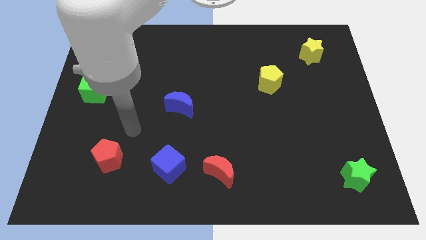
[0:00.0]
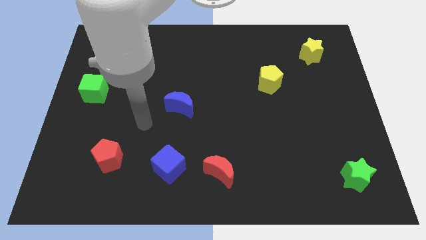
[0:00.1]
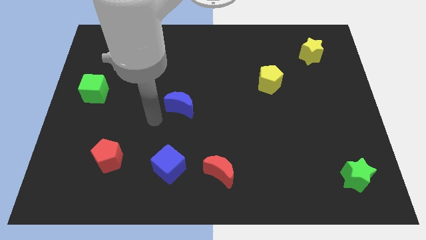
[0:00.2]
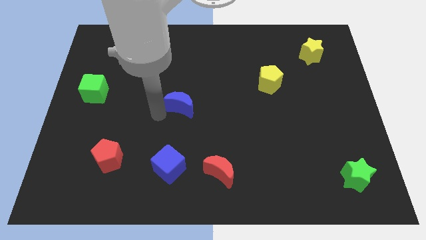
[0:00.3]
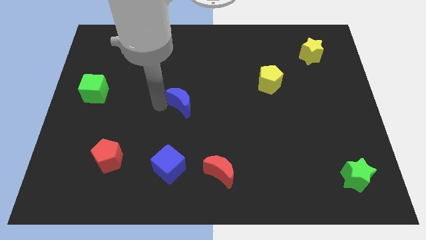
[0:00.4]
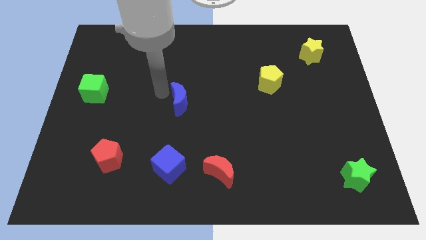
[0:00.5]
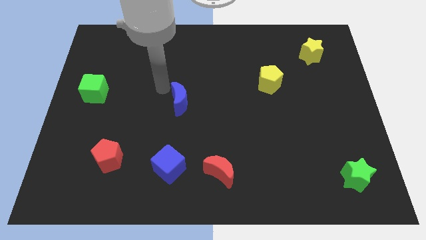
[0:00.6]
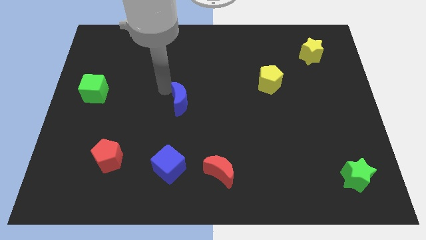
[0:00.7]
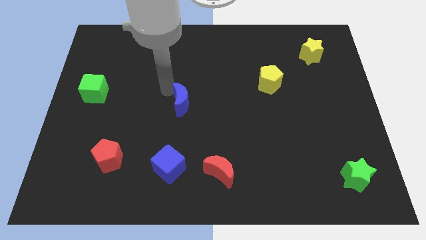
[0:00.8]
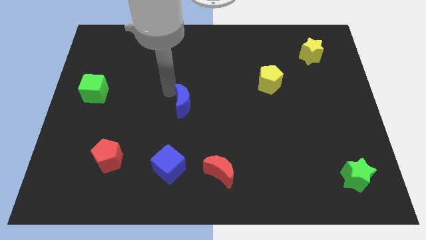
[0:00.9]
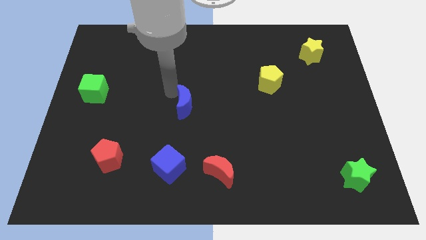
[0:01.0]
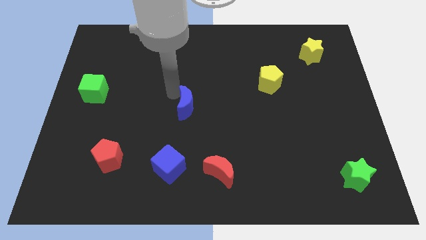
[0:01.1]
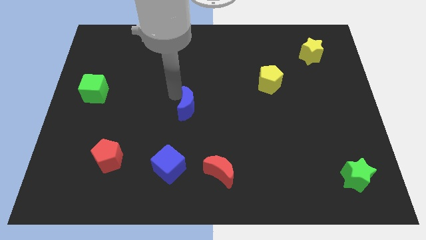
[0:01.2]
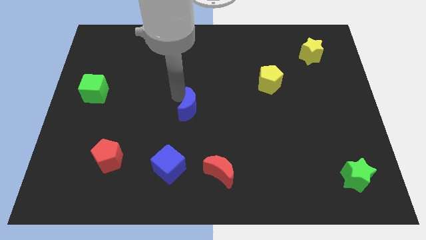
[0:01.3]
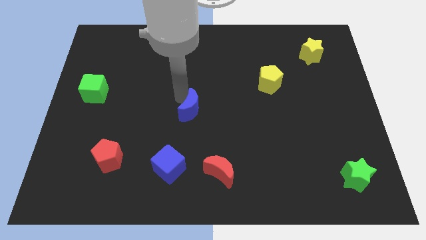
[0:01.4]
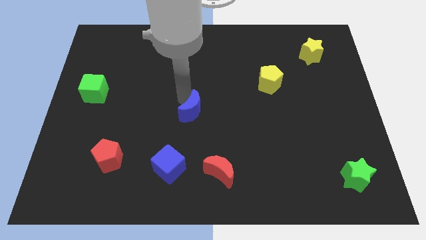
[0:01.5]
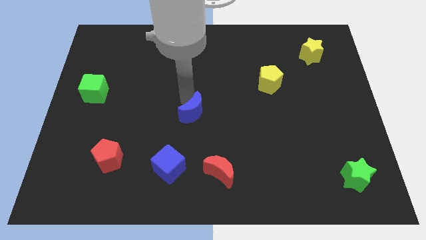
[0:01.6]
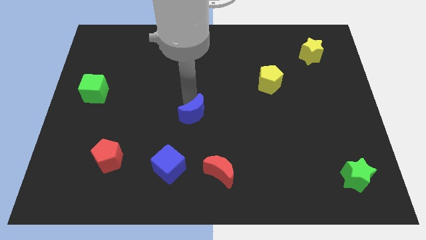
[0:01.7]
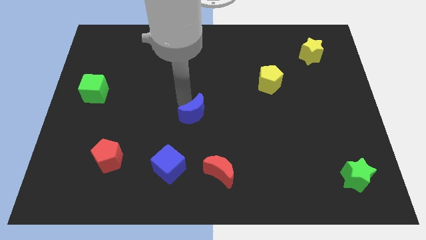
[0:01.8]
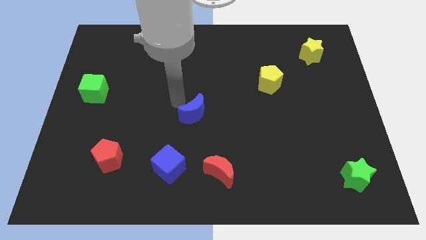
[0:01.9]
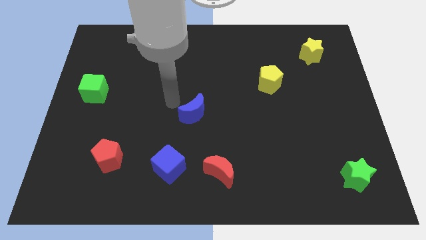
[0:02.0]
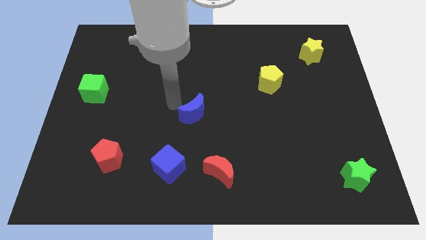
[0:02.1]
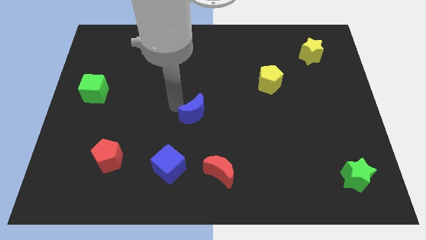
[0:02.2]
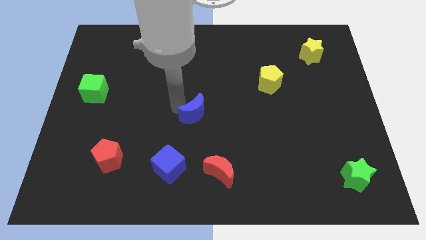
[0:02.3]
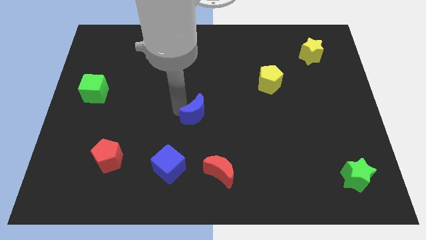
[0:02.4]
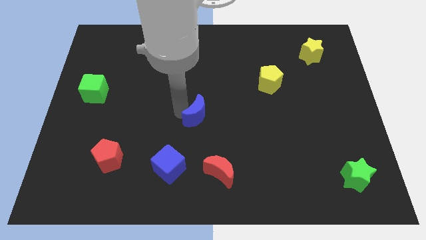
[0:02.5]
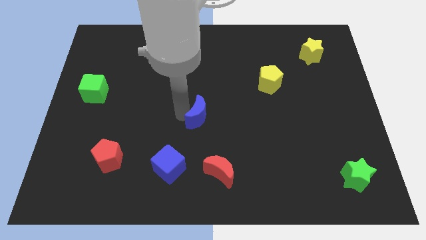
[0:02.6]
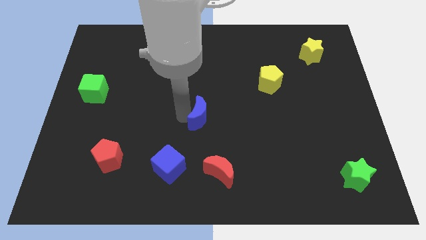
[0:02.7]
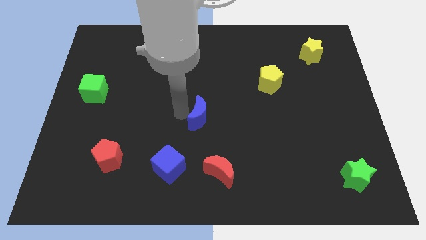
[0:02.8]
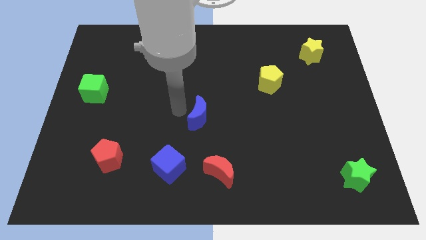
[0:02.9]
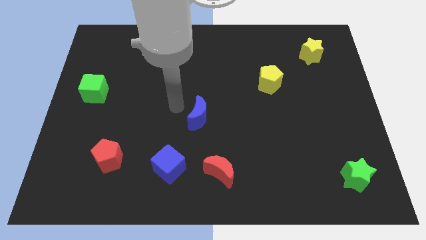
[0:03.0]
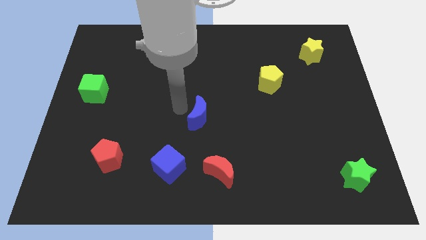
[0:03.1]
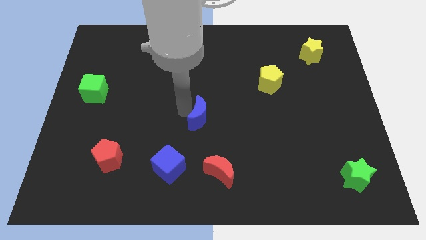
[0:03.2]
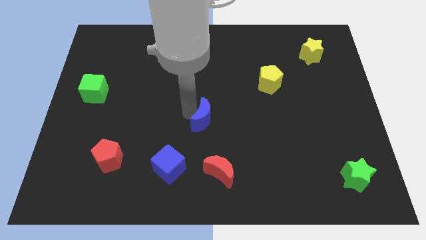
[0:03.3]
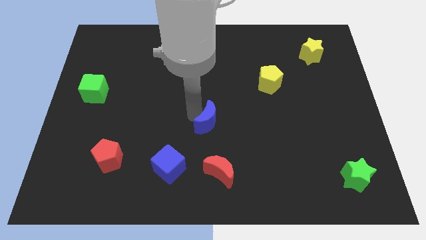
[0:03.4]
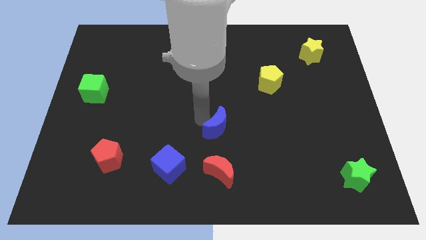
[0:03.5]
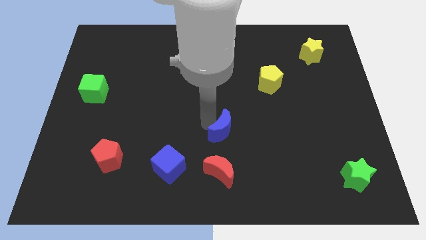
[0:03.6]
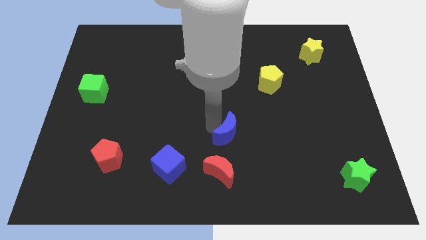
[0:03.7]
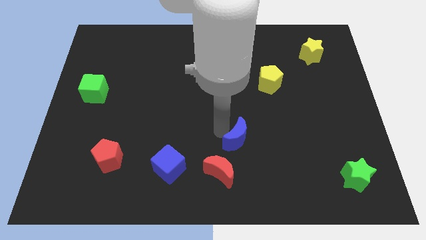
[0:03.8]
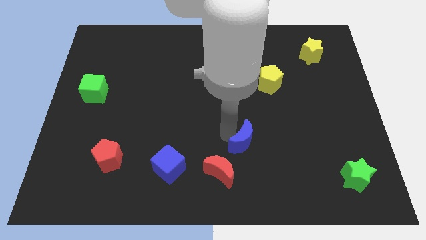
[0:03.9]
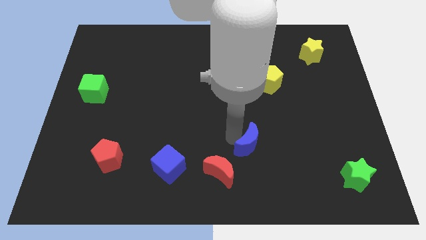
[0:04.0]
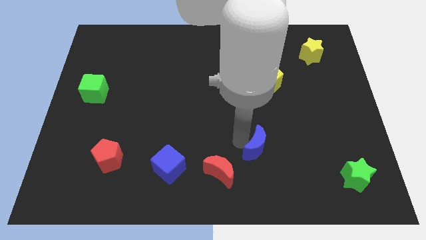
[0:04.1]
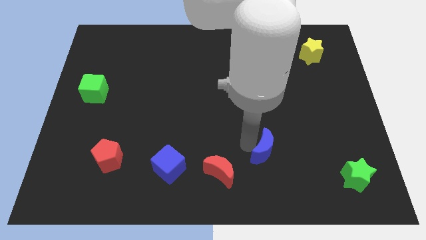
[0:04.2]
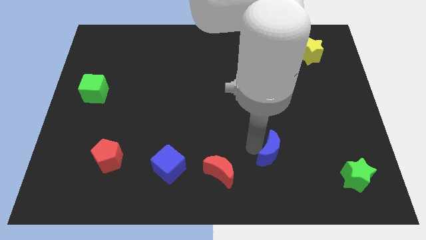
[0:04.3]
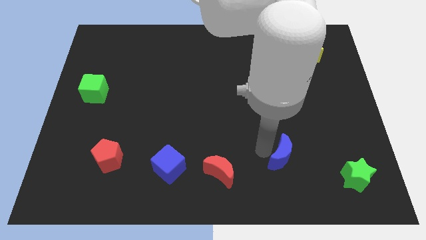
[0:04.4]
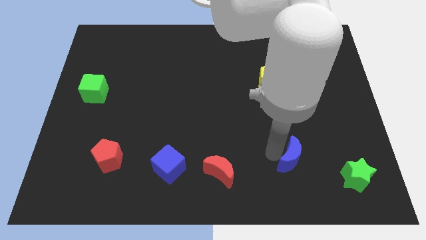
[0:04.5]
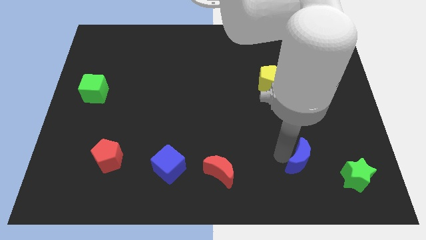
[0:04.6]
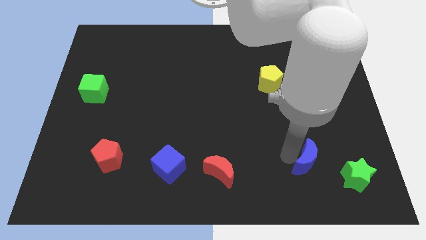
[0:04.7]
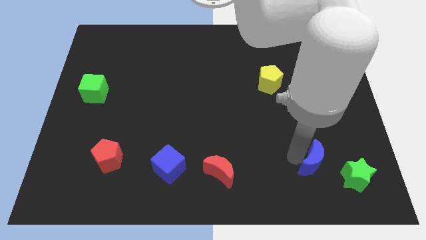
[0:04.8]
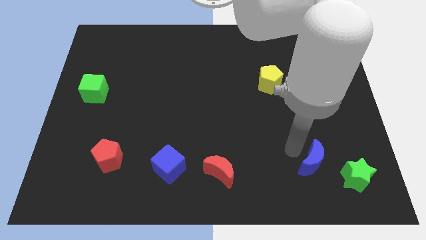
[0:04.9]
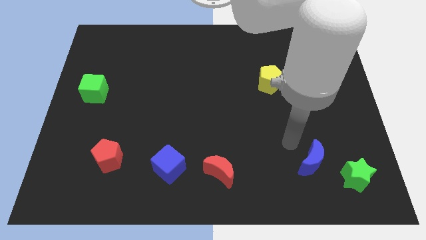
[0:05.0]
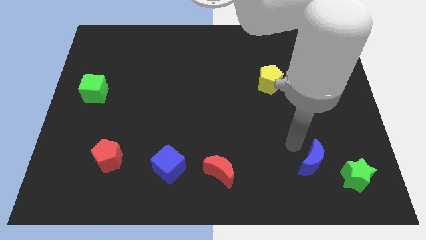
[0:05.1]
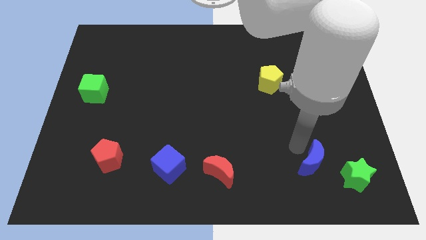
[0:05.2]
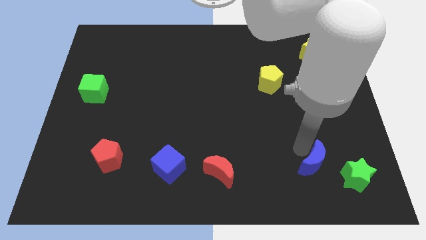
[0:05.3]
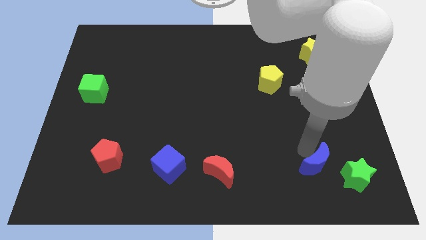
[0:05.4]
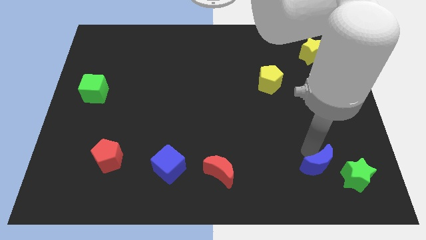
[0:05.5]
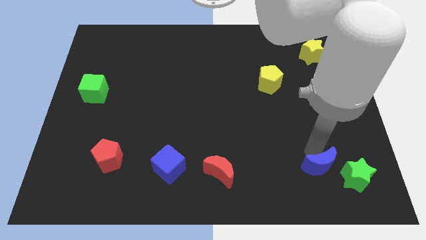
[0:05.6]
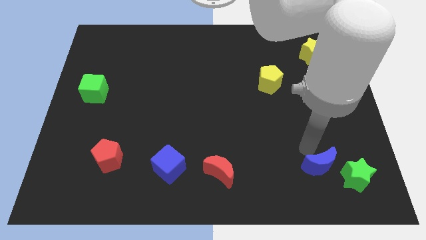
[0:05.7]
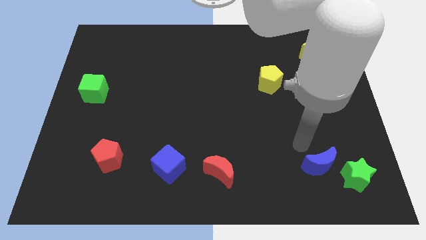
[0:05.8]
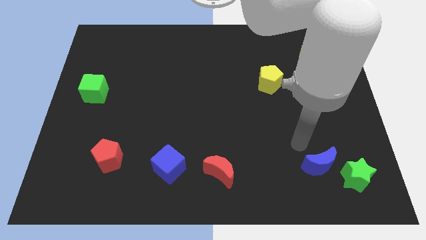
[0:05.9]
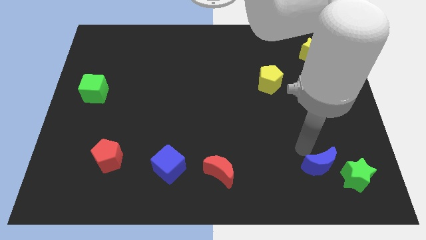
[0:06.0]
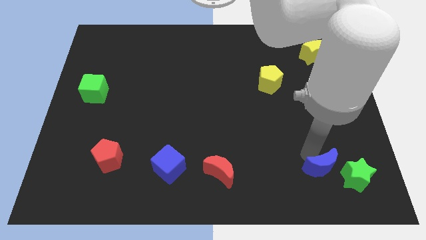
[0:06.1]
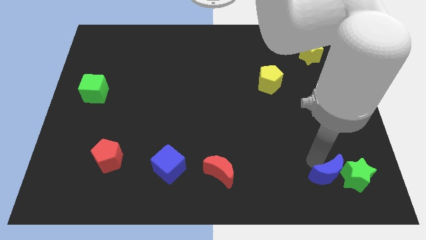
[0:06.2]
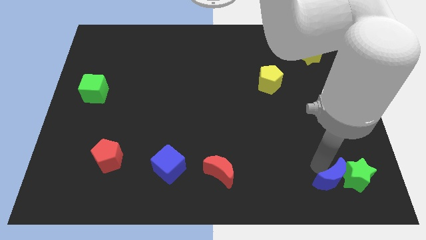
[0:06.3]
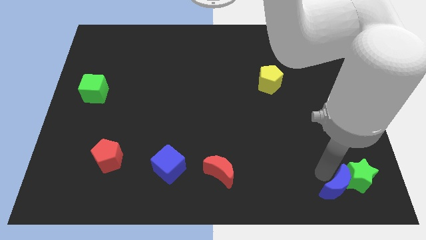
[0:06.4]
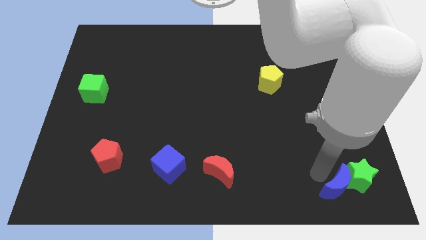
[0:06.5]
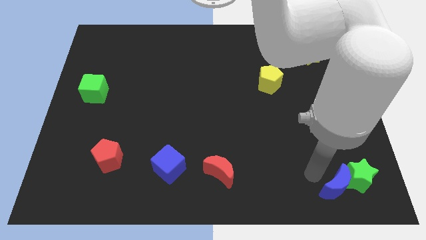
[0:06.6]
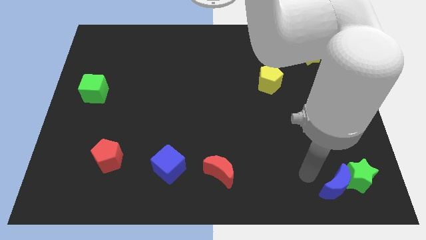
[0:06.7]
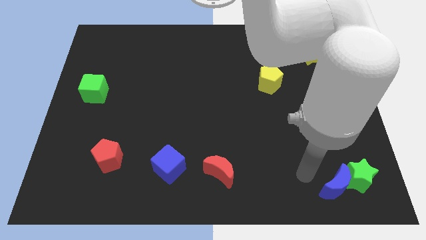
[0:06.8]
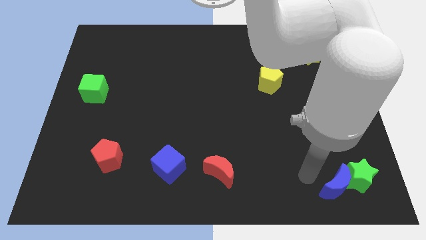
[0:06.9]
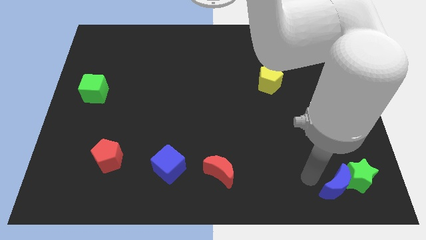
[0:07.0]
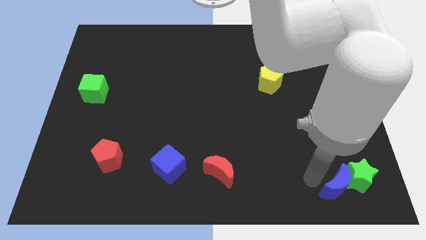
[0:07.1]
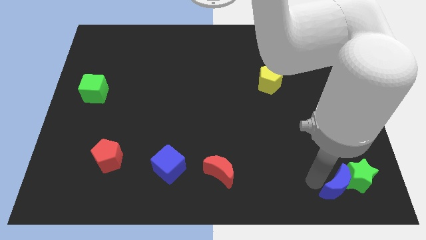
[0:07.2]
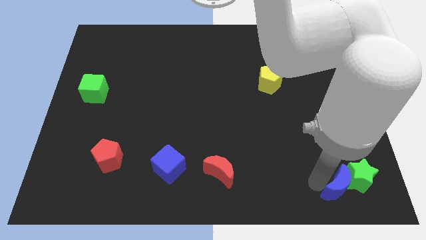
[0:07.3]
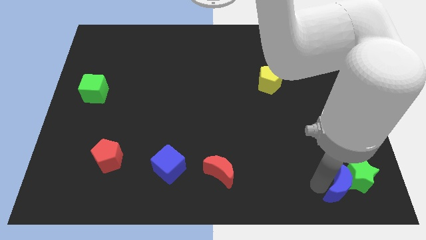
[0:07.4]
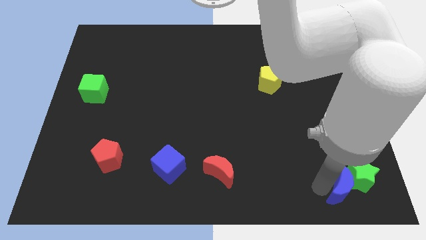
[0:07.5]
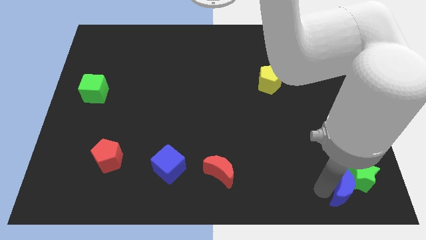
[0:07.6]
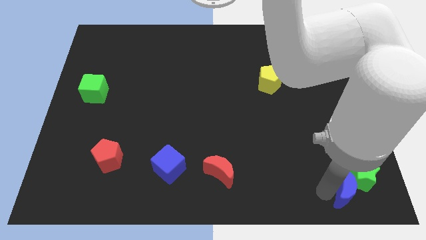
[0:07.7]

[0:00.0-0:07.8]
move the blue moon to the bottom right
